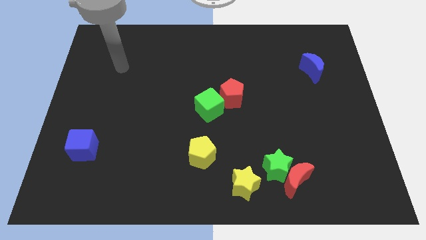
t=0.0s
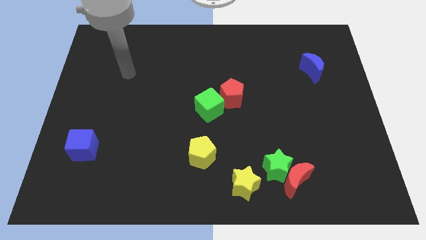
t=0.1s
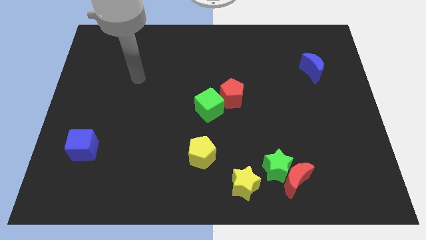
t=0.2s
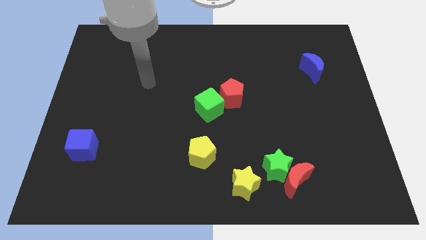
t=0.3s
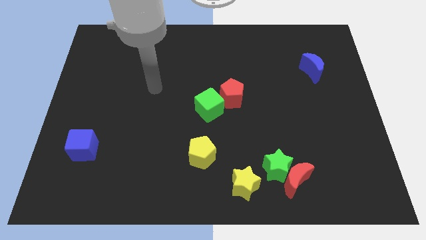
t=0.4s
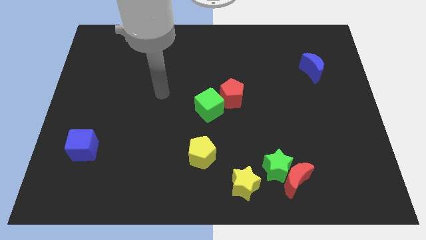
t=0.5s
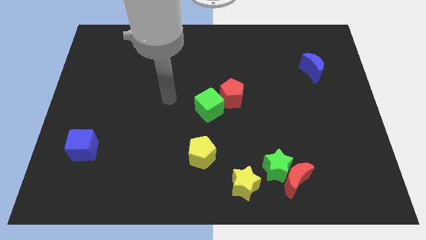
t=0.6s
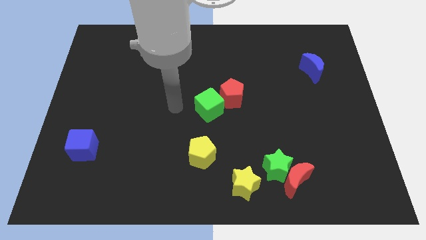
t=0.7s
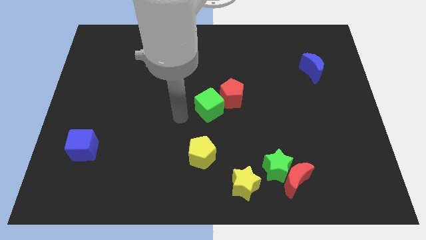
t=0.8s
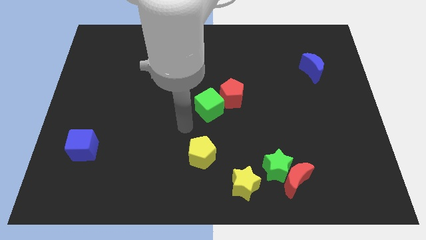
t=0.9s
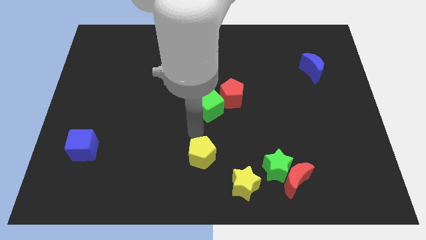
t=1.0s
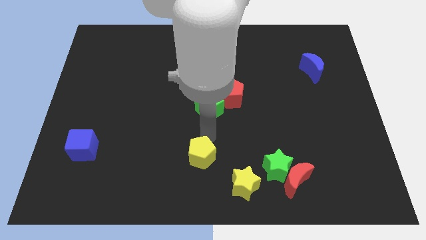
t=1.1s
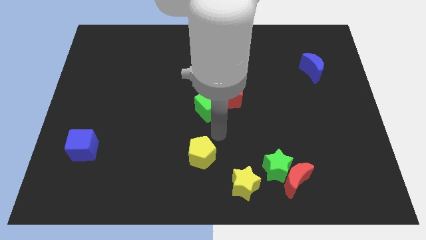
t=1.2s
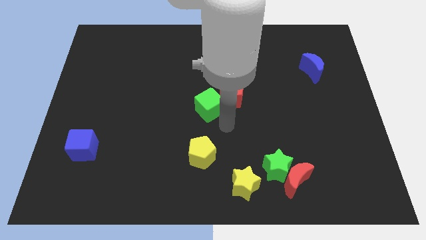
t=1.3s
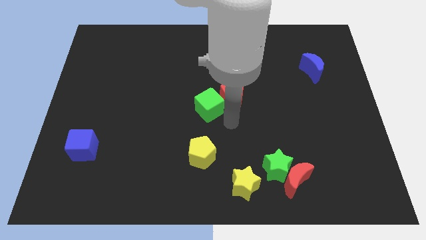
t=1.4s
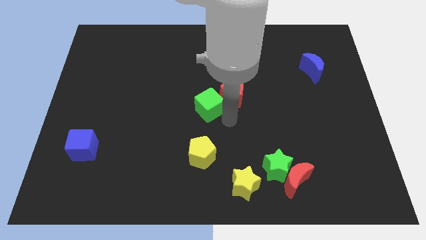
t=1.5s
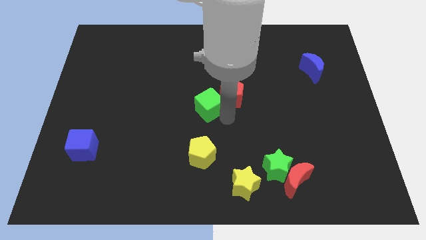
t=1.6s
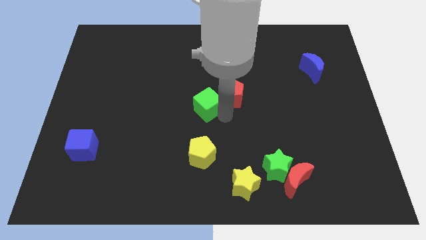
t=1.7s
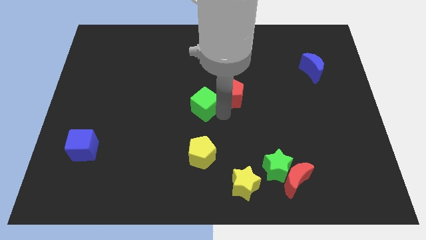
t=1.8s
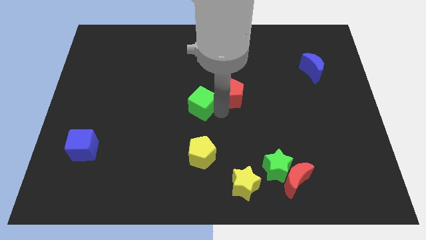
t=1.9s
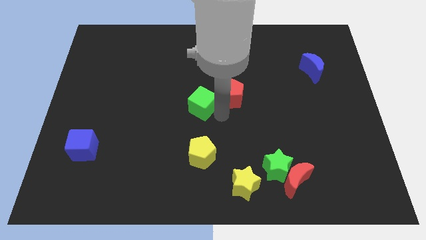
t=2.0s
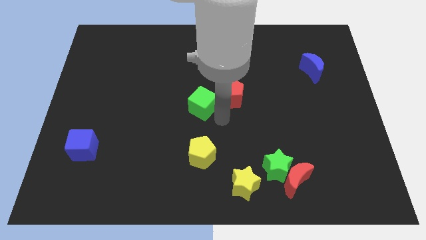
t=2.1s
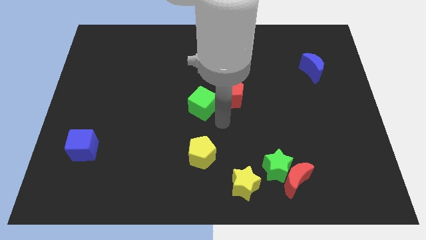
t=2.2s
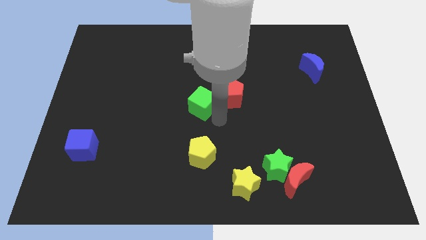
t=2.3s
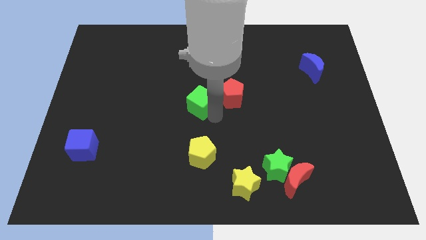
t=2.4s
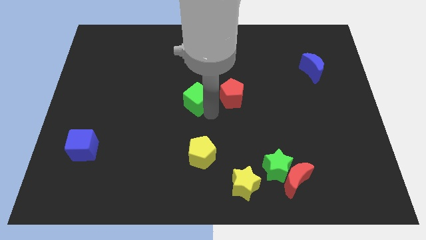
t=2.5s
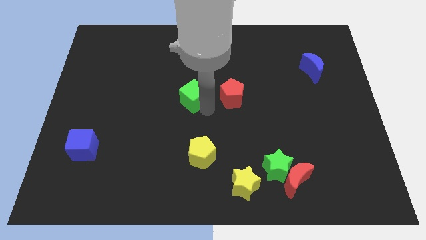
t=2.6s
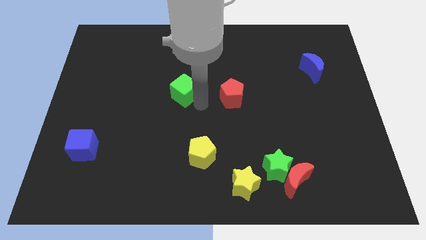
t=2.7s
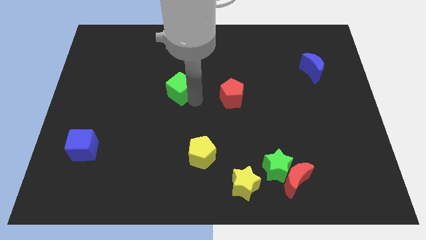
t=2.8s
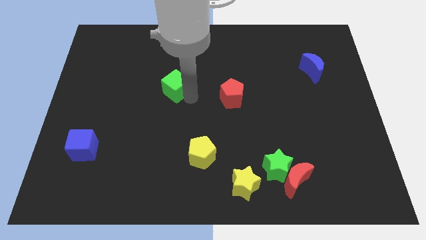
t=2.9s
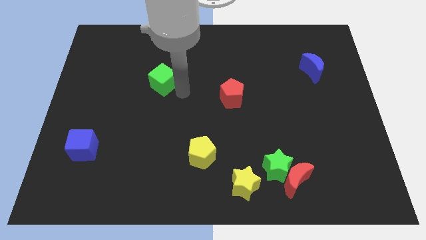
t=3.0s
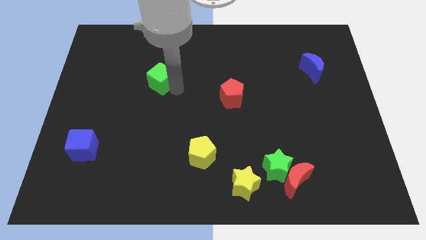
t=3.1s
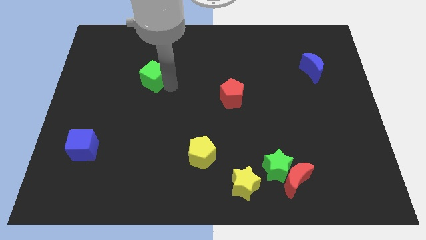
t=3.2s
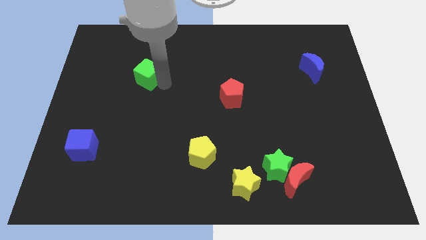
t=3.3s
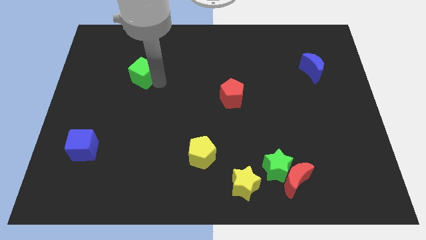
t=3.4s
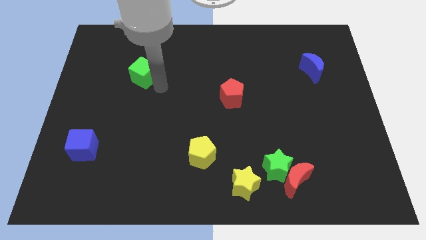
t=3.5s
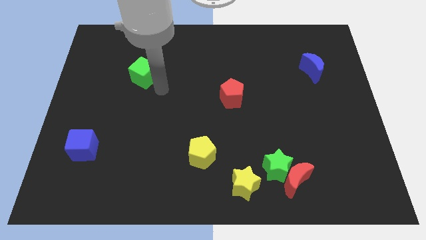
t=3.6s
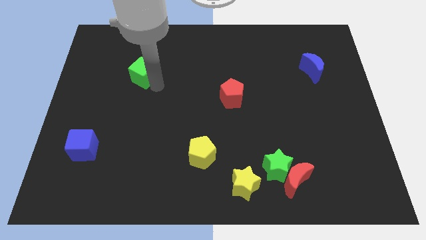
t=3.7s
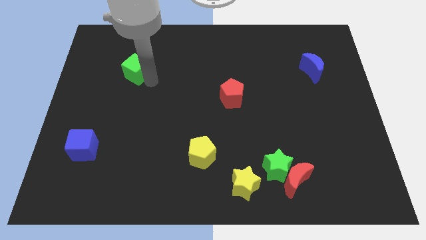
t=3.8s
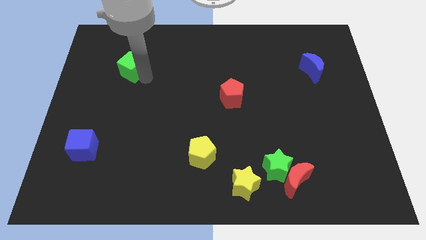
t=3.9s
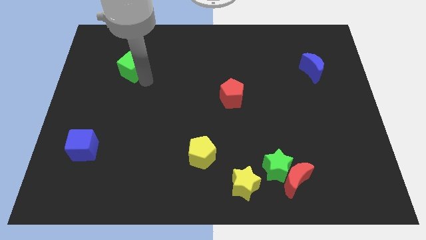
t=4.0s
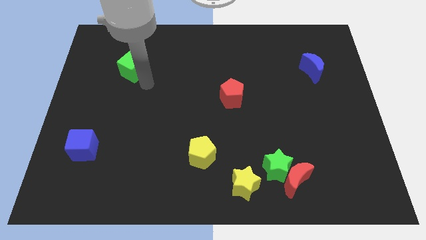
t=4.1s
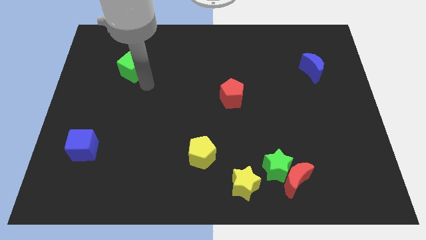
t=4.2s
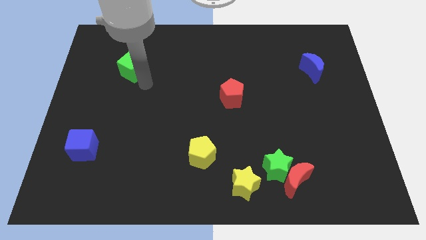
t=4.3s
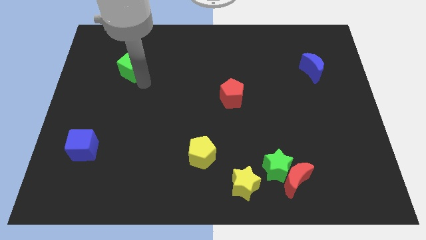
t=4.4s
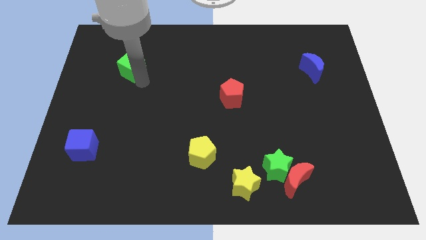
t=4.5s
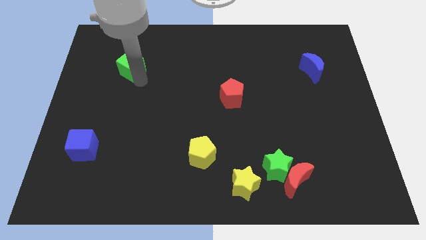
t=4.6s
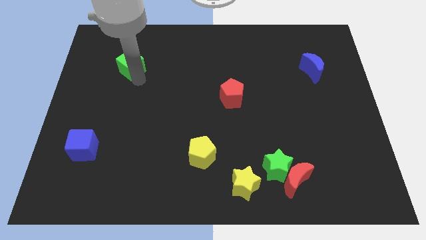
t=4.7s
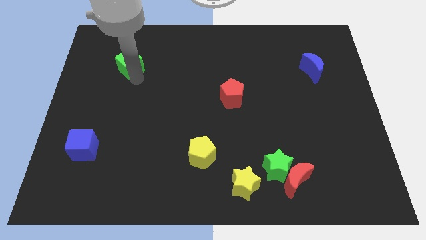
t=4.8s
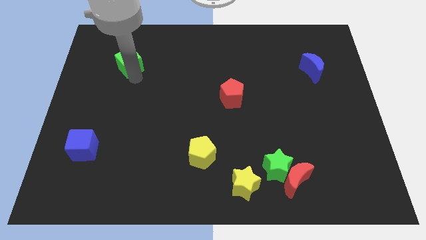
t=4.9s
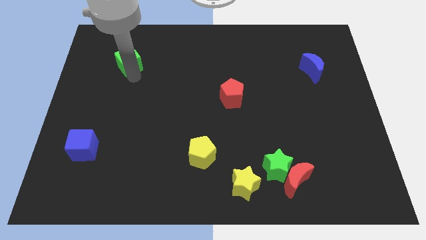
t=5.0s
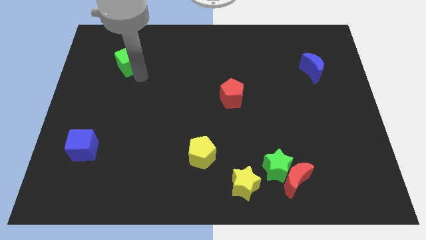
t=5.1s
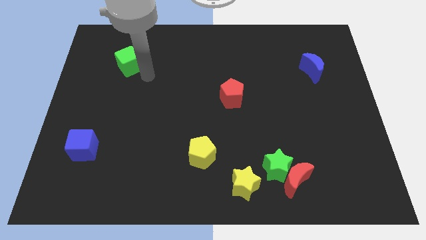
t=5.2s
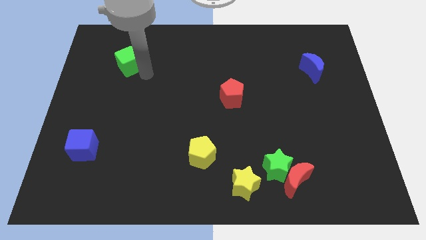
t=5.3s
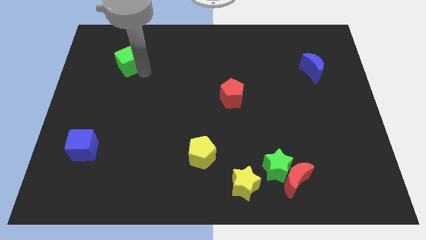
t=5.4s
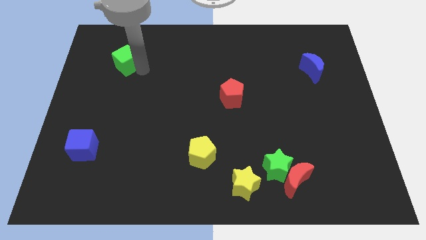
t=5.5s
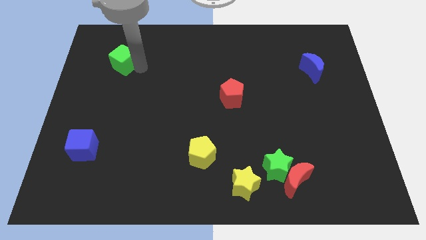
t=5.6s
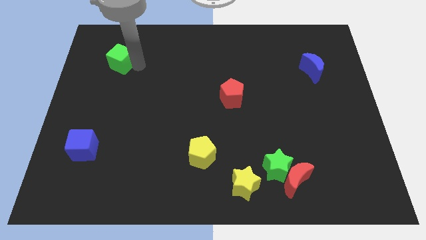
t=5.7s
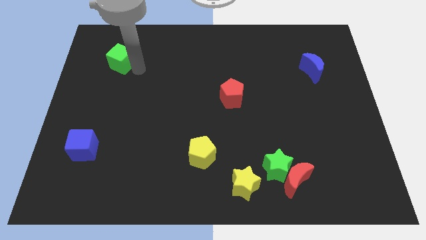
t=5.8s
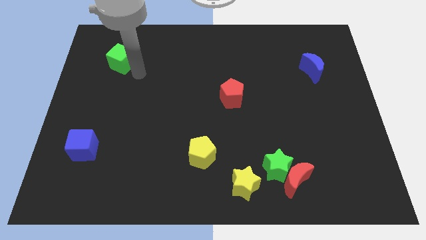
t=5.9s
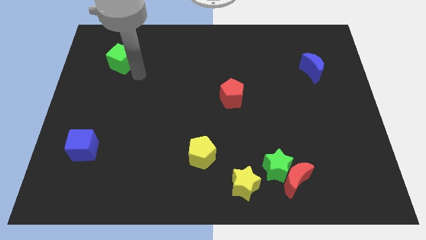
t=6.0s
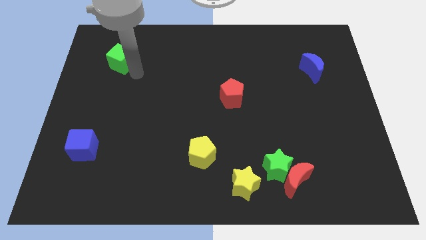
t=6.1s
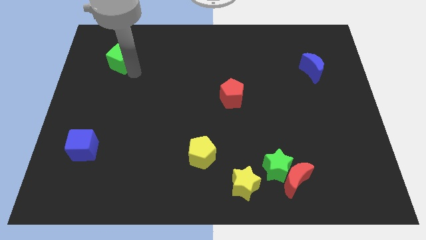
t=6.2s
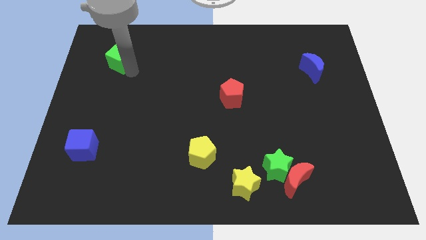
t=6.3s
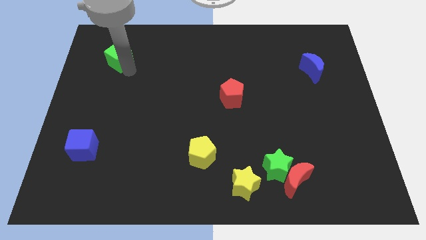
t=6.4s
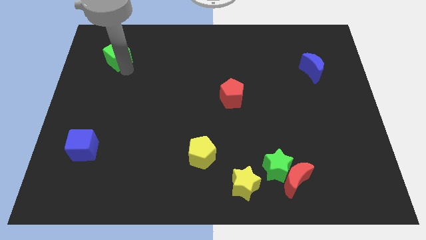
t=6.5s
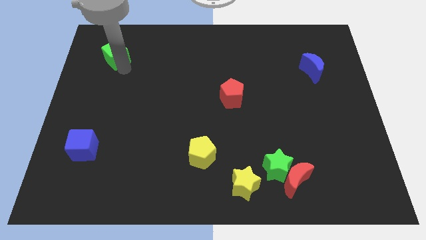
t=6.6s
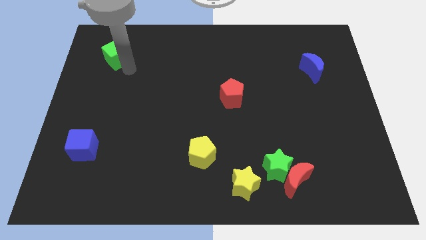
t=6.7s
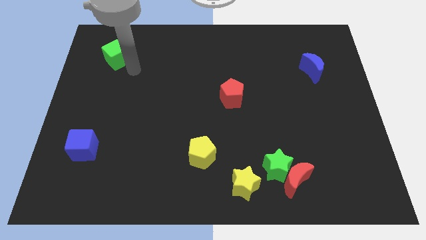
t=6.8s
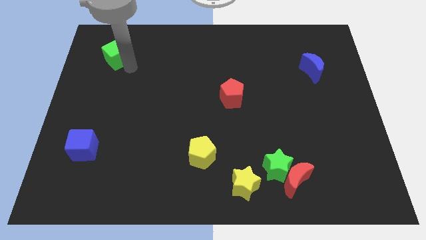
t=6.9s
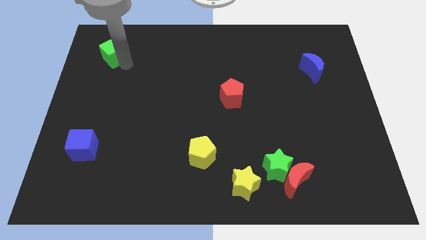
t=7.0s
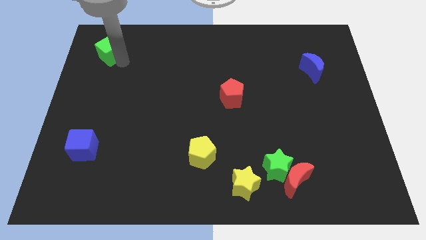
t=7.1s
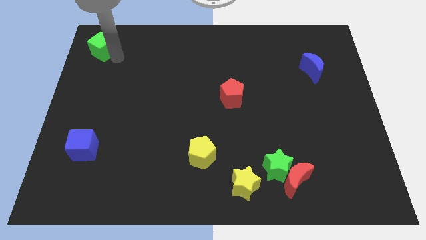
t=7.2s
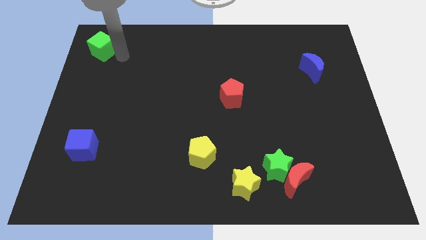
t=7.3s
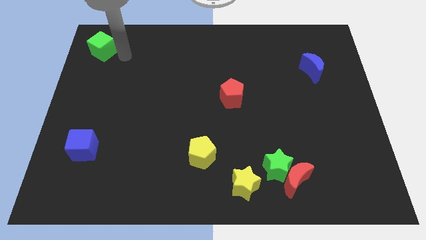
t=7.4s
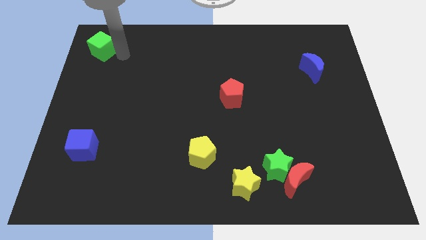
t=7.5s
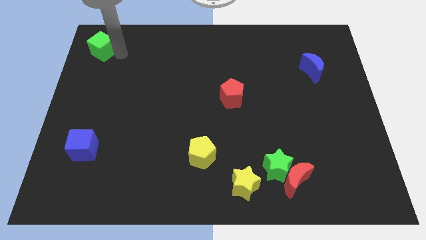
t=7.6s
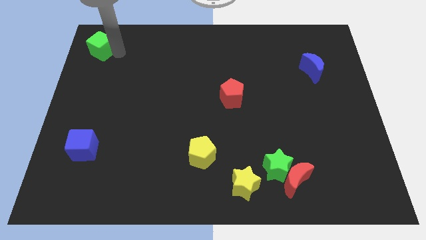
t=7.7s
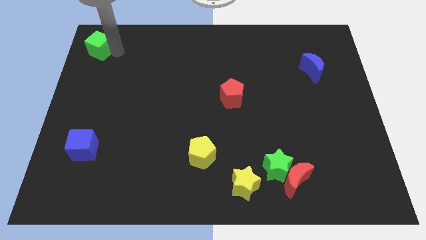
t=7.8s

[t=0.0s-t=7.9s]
move the green cube to the top left of the board
